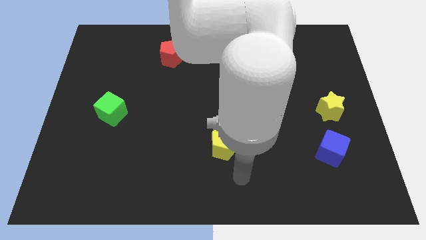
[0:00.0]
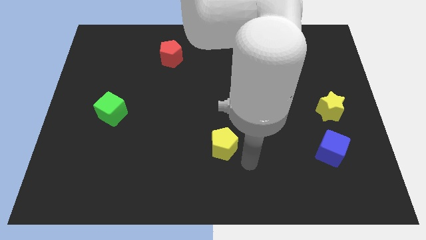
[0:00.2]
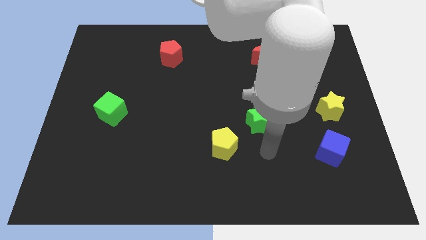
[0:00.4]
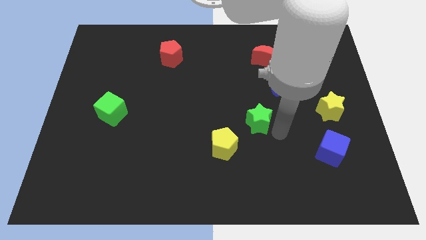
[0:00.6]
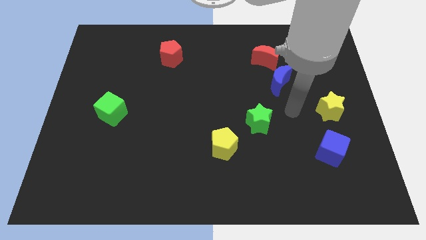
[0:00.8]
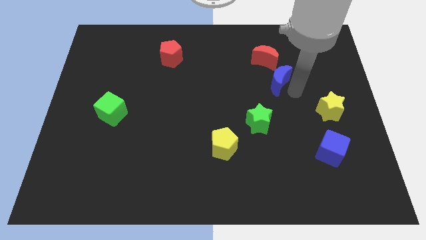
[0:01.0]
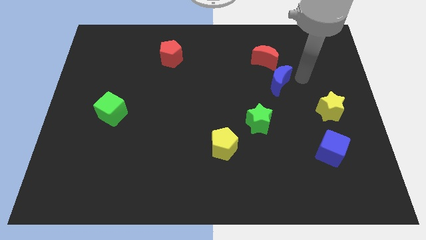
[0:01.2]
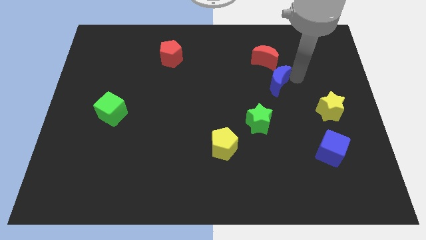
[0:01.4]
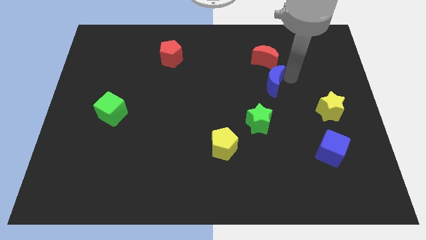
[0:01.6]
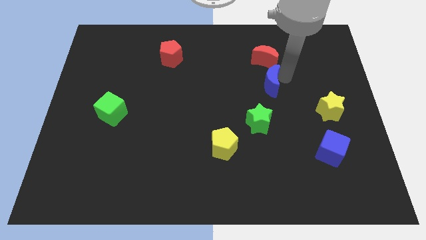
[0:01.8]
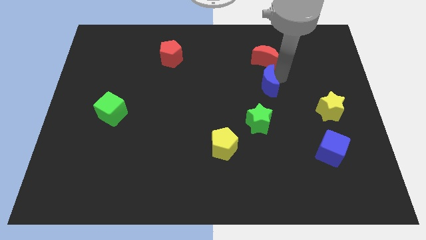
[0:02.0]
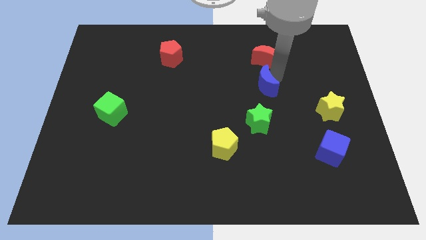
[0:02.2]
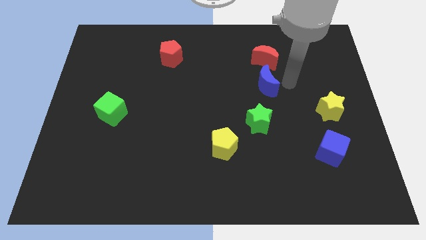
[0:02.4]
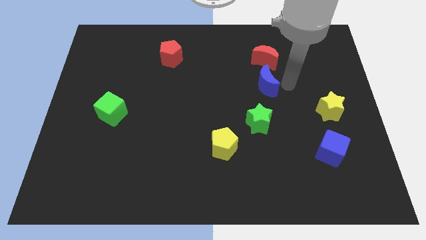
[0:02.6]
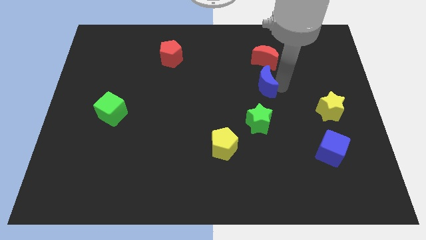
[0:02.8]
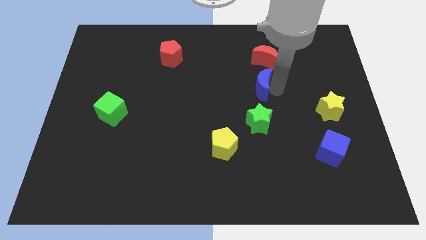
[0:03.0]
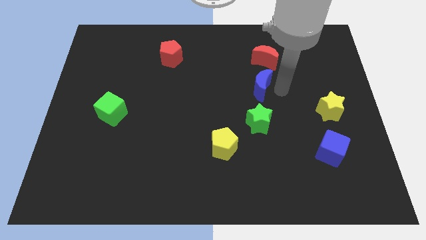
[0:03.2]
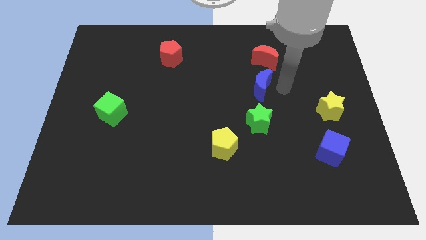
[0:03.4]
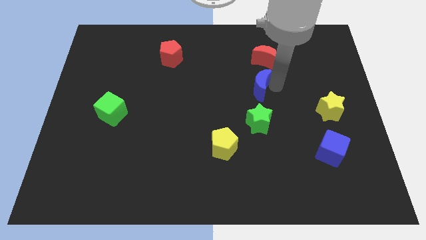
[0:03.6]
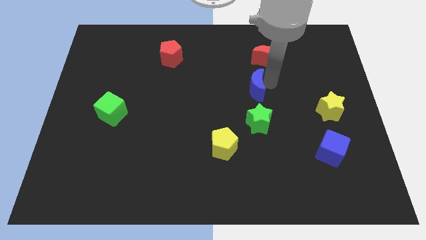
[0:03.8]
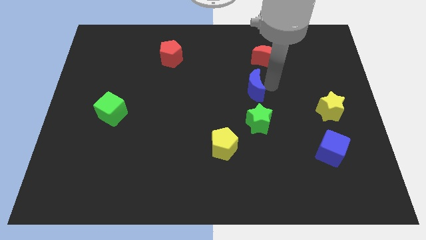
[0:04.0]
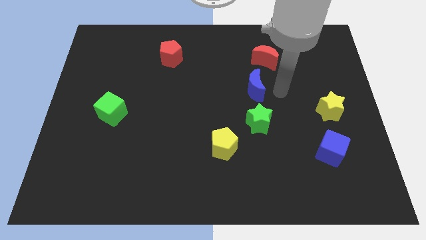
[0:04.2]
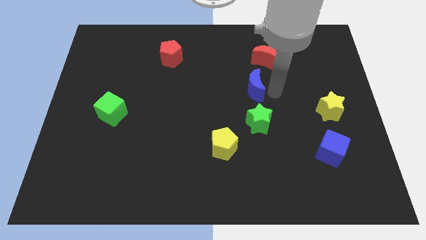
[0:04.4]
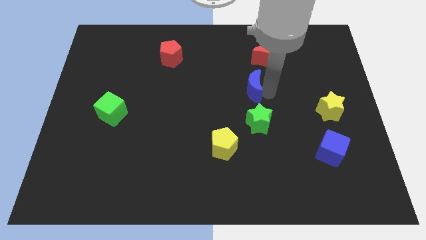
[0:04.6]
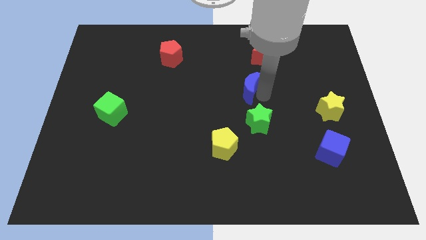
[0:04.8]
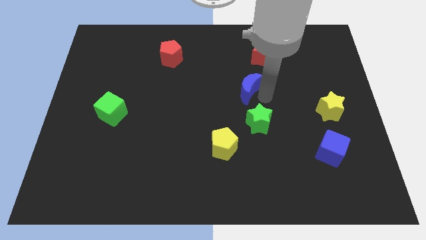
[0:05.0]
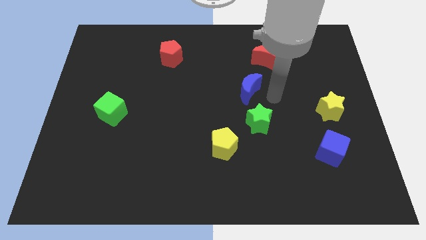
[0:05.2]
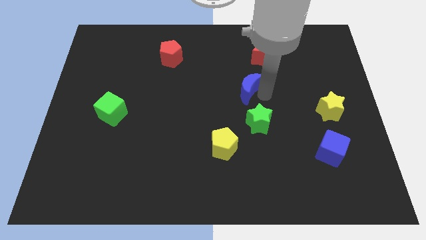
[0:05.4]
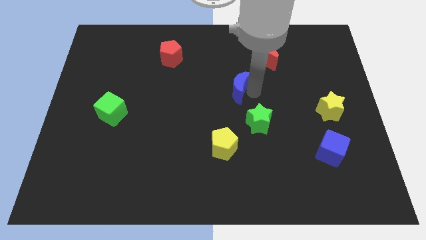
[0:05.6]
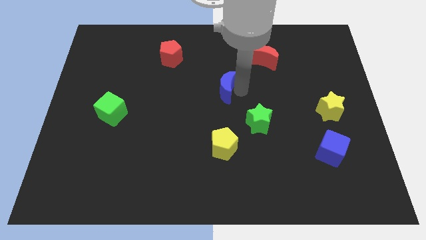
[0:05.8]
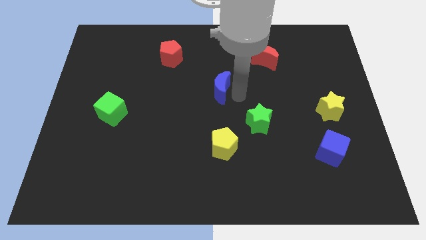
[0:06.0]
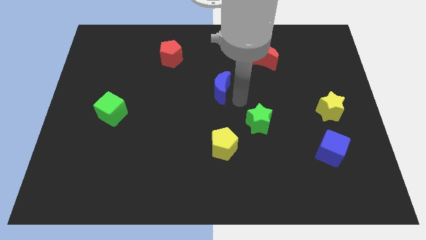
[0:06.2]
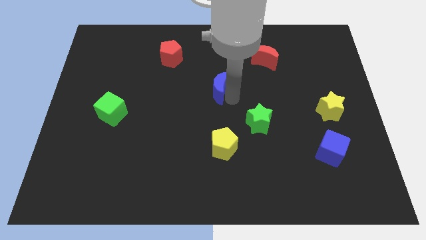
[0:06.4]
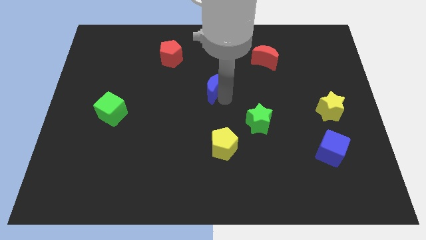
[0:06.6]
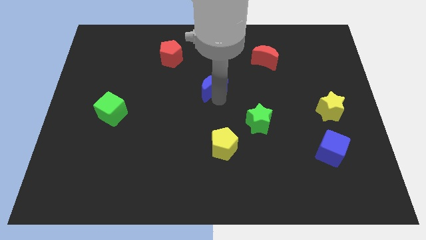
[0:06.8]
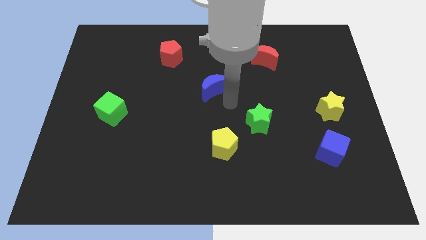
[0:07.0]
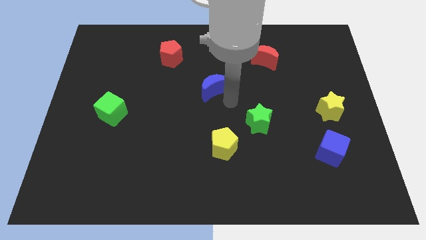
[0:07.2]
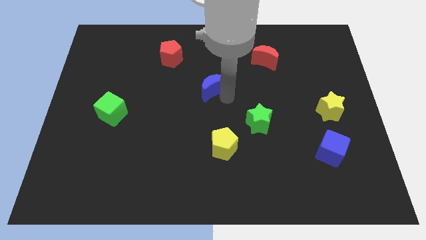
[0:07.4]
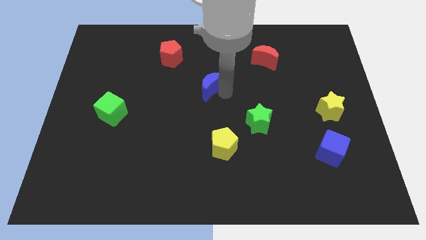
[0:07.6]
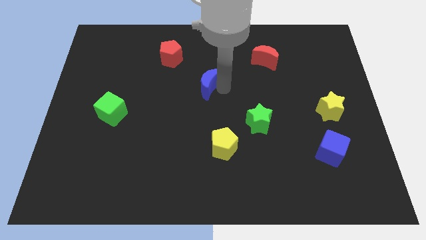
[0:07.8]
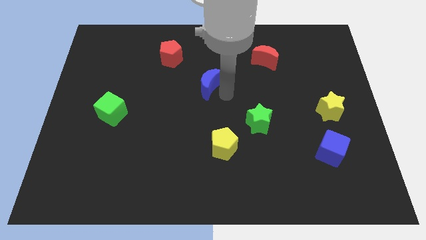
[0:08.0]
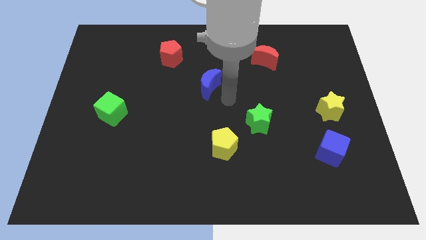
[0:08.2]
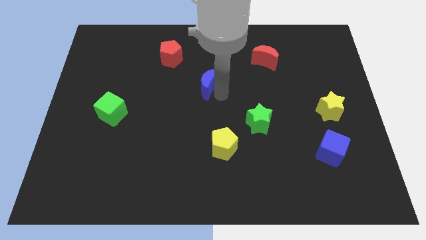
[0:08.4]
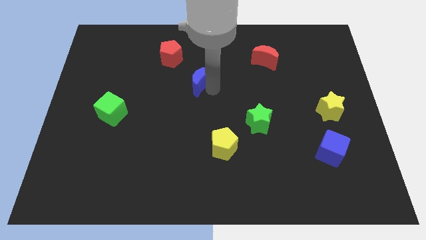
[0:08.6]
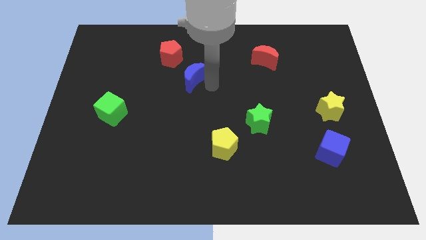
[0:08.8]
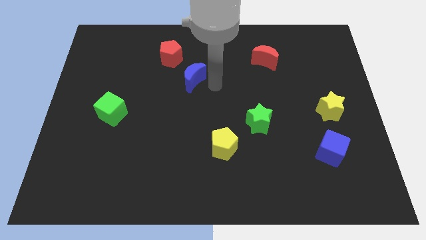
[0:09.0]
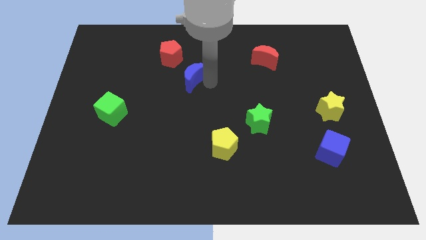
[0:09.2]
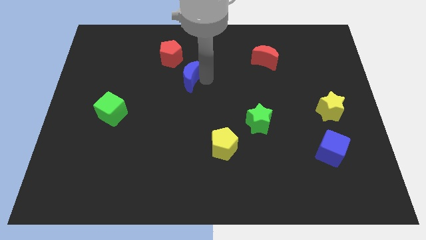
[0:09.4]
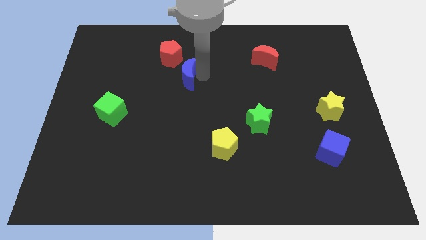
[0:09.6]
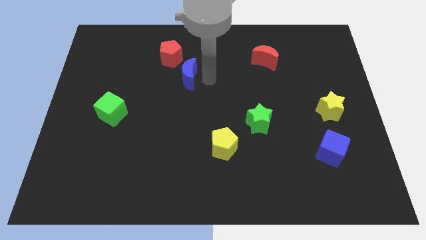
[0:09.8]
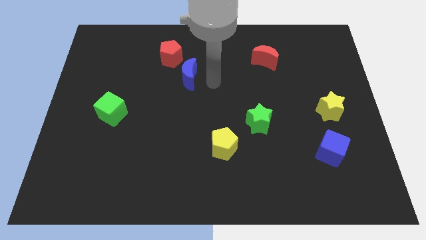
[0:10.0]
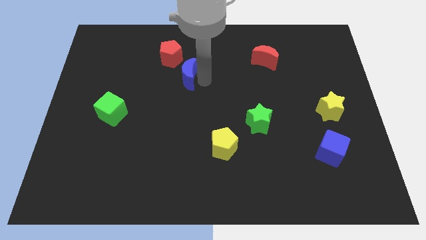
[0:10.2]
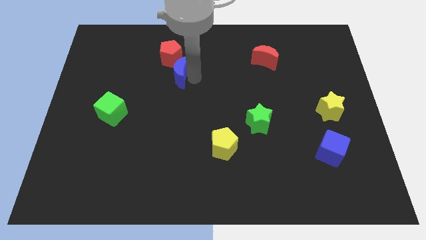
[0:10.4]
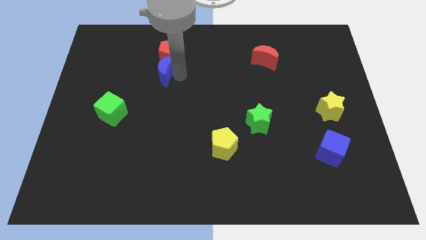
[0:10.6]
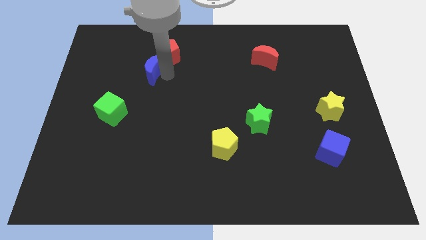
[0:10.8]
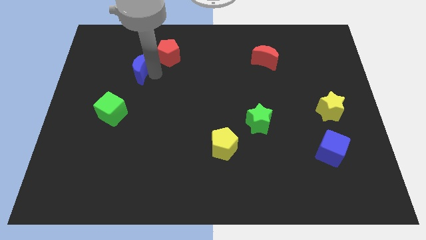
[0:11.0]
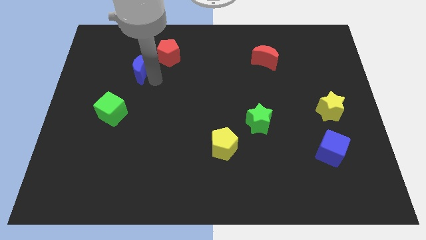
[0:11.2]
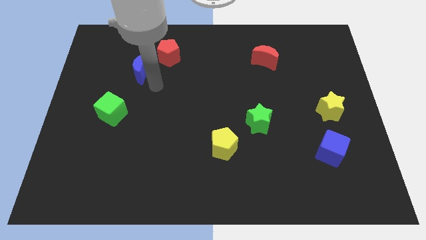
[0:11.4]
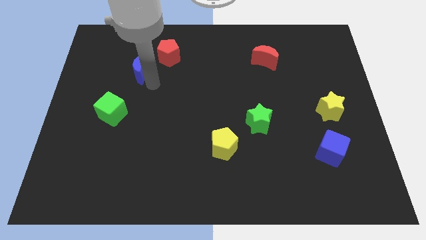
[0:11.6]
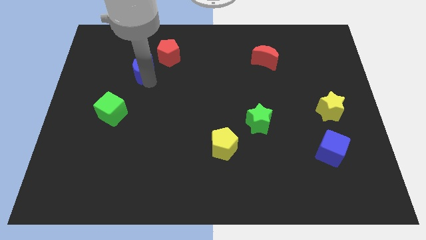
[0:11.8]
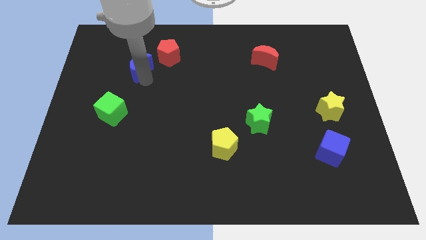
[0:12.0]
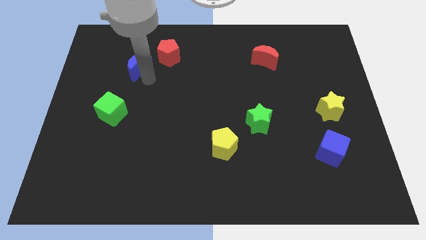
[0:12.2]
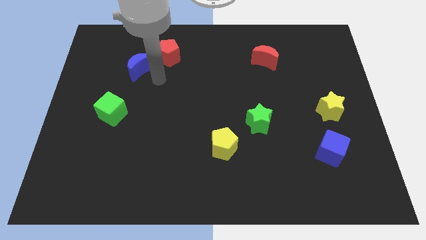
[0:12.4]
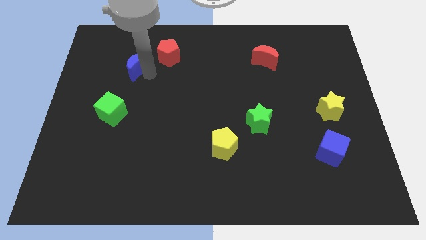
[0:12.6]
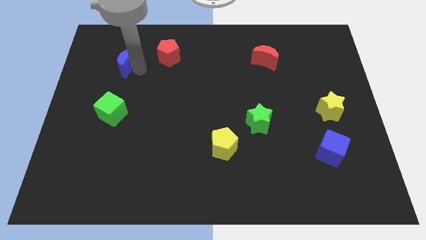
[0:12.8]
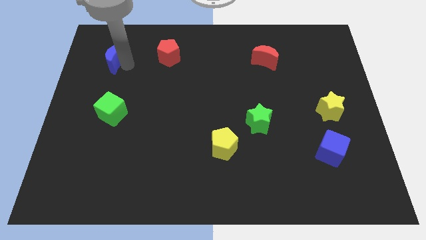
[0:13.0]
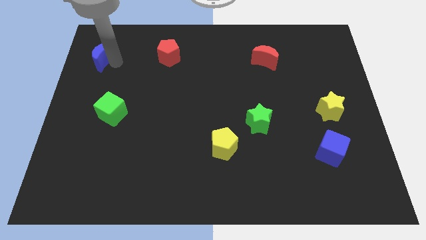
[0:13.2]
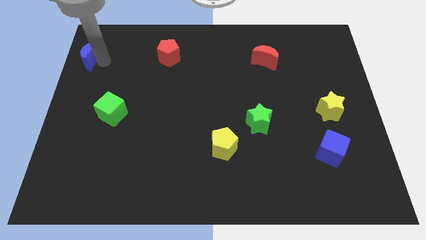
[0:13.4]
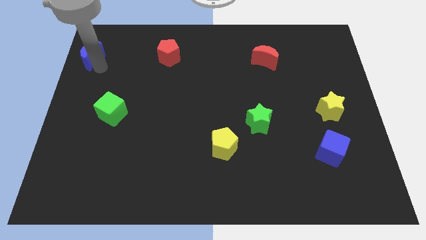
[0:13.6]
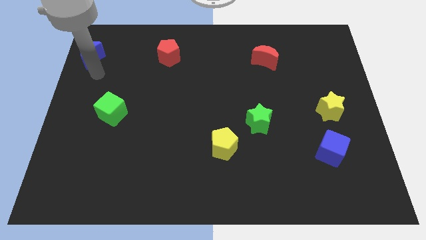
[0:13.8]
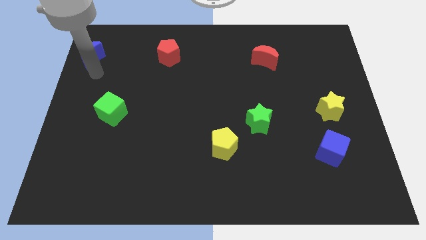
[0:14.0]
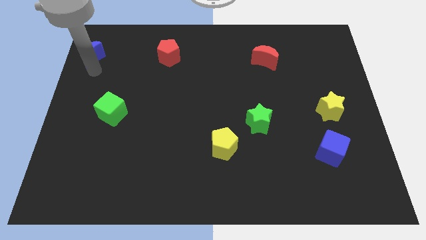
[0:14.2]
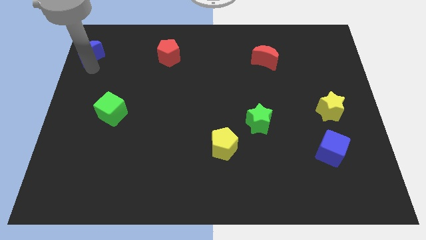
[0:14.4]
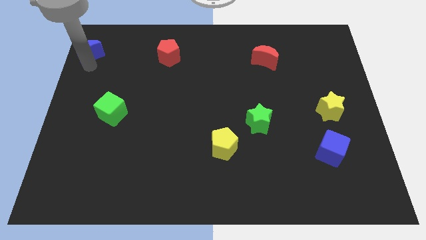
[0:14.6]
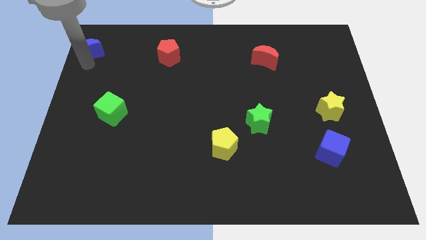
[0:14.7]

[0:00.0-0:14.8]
slide the blue moon to the top left
